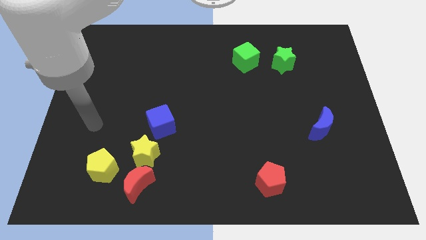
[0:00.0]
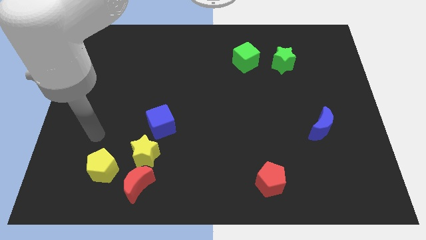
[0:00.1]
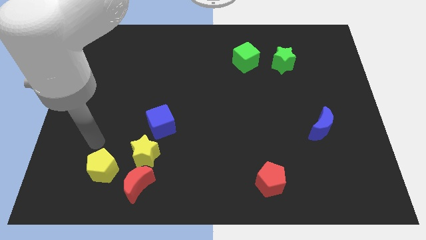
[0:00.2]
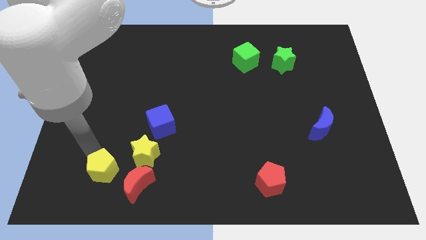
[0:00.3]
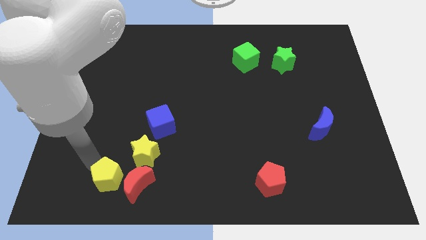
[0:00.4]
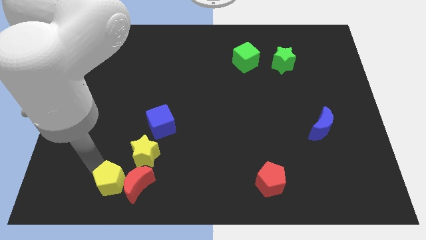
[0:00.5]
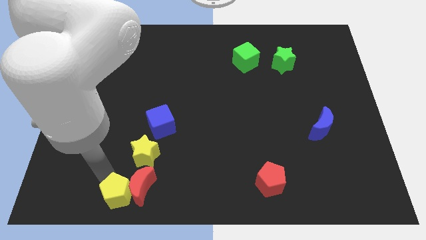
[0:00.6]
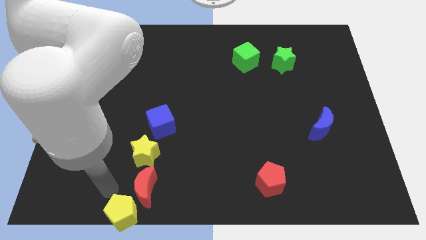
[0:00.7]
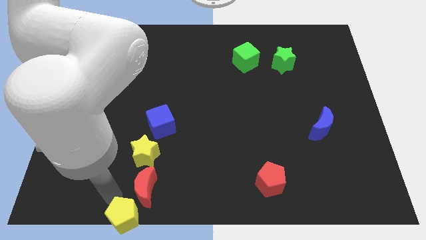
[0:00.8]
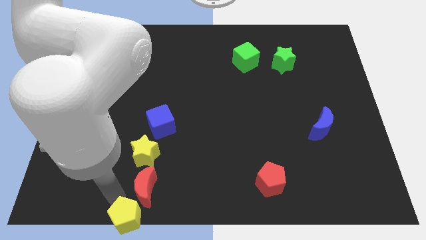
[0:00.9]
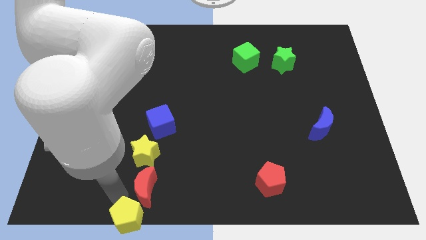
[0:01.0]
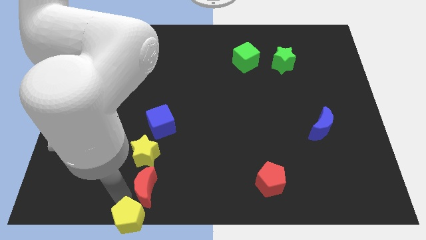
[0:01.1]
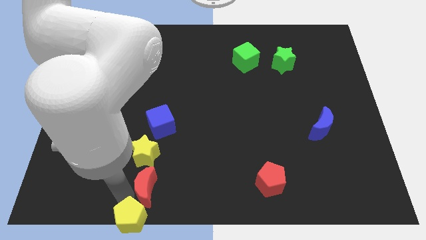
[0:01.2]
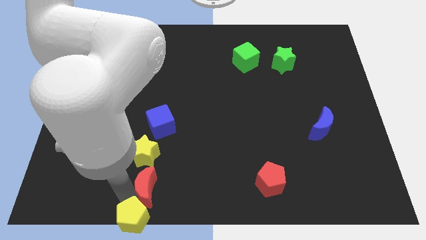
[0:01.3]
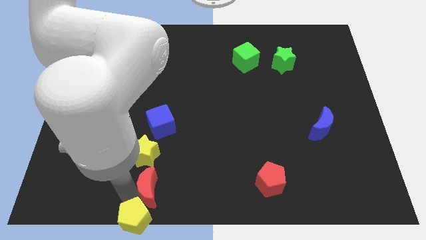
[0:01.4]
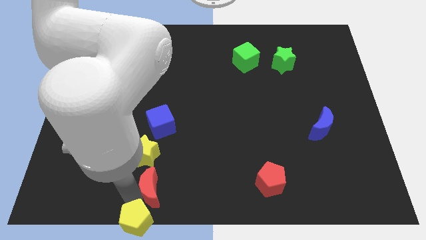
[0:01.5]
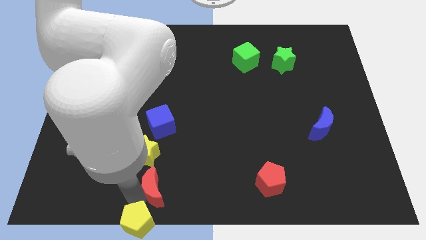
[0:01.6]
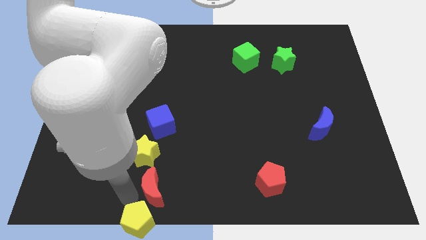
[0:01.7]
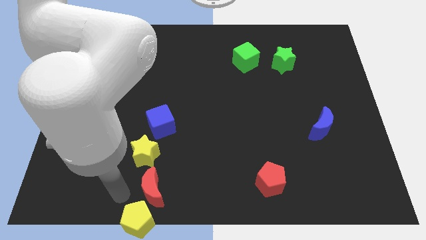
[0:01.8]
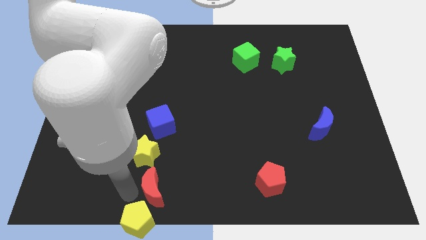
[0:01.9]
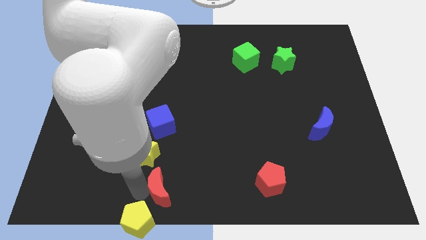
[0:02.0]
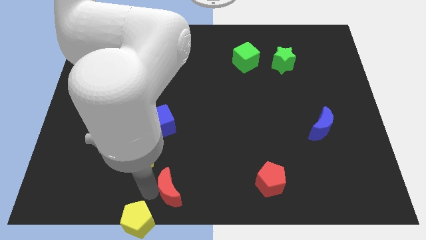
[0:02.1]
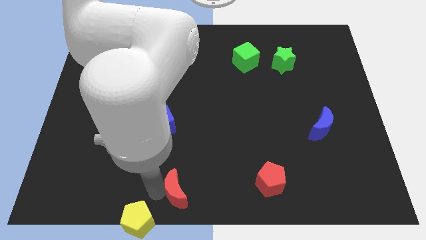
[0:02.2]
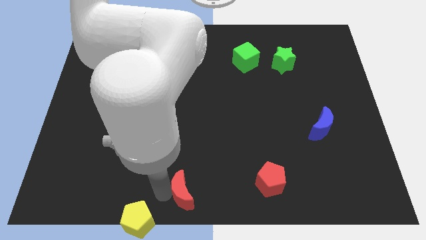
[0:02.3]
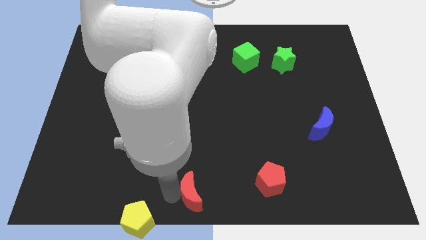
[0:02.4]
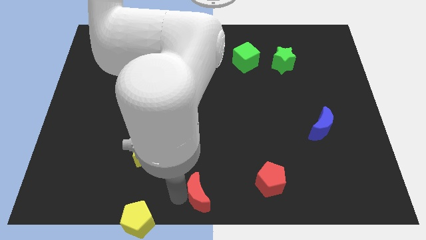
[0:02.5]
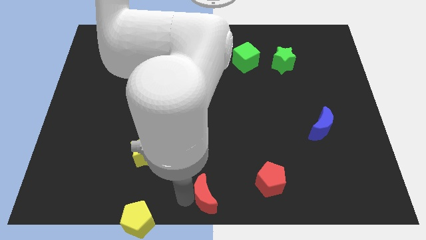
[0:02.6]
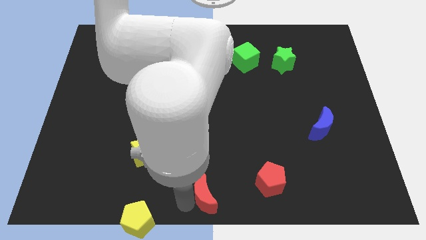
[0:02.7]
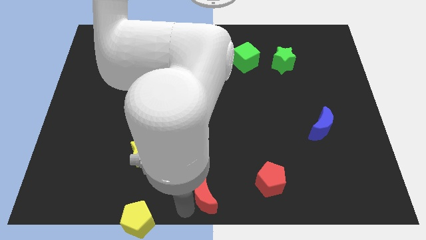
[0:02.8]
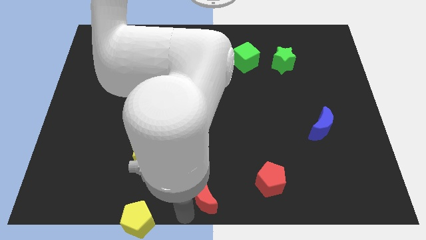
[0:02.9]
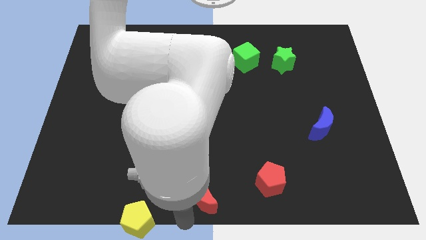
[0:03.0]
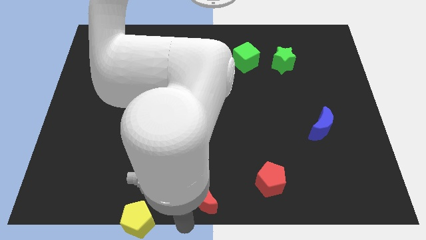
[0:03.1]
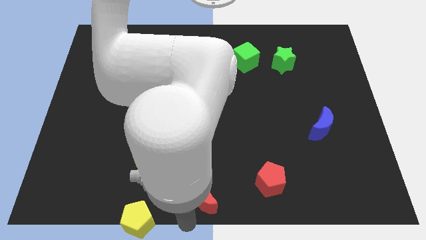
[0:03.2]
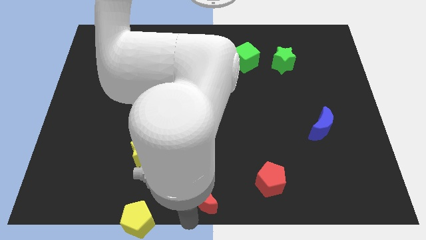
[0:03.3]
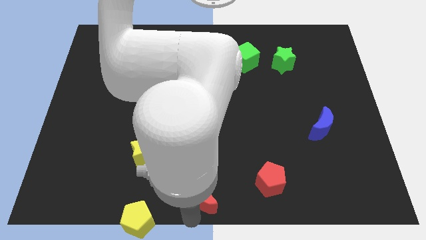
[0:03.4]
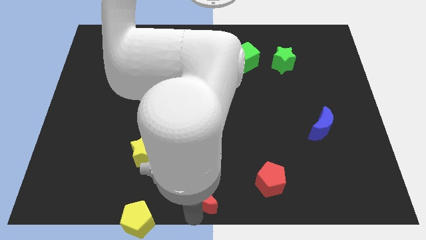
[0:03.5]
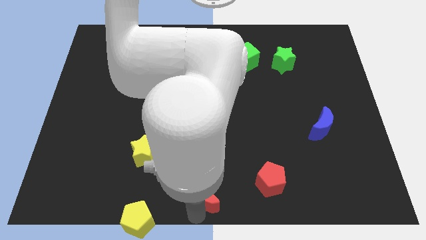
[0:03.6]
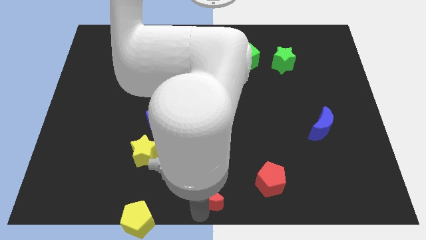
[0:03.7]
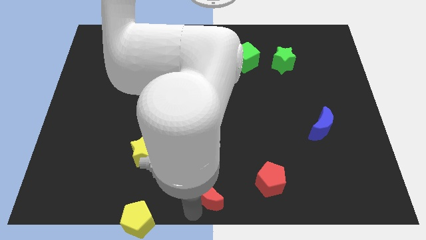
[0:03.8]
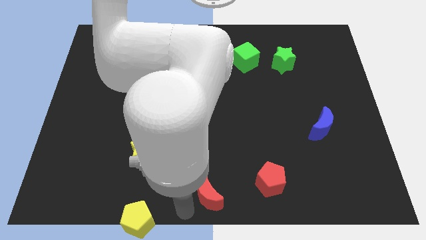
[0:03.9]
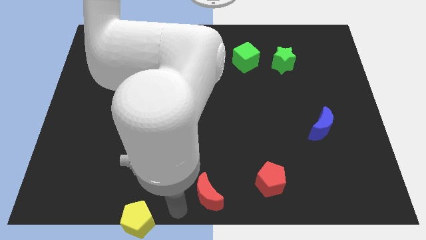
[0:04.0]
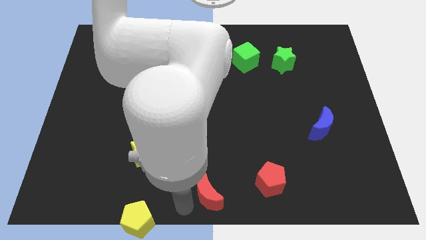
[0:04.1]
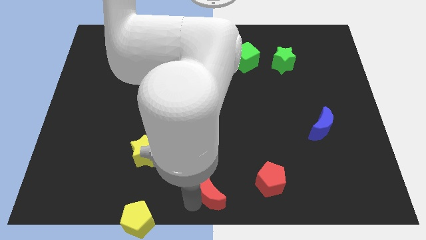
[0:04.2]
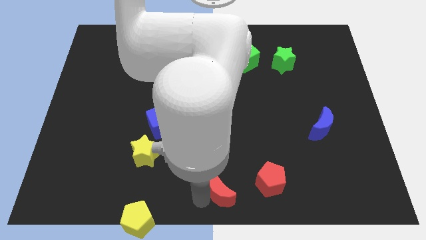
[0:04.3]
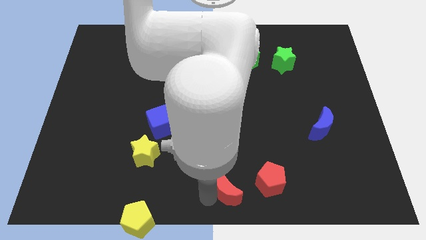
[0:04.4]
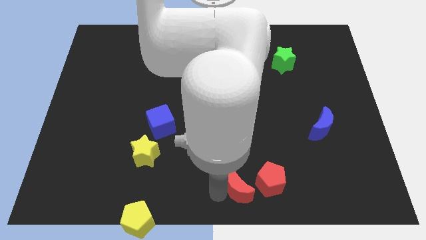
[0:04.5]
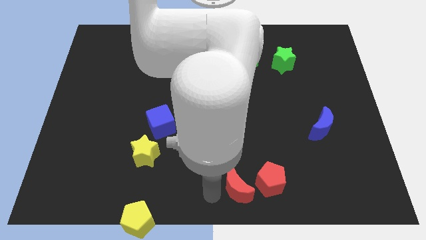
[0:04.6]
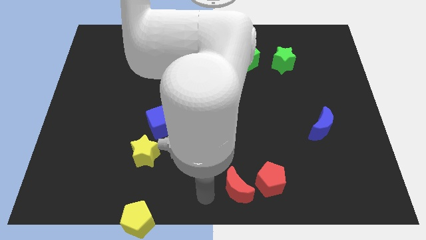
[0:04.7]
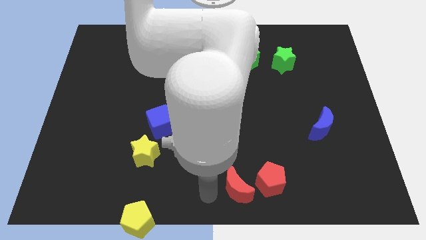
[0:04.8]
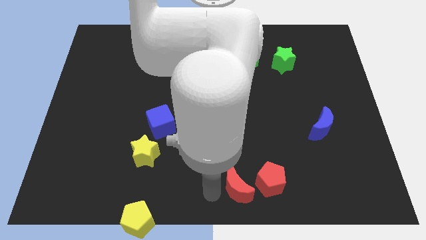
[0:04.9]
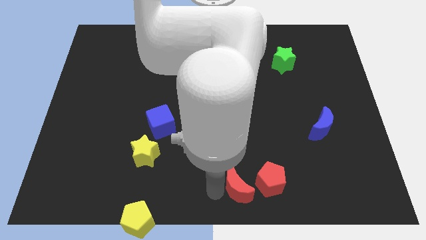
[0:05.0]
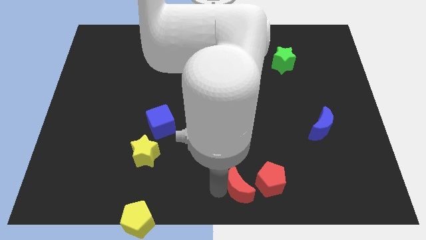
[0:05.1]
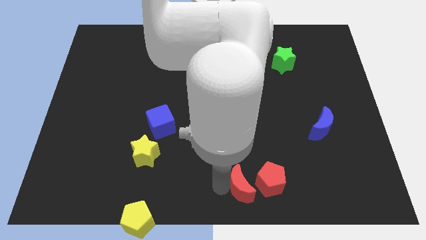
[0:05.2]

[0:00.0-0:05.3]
move the red moon close to the red pentagon

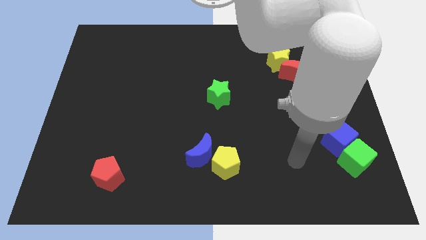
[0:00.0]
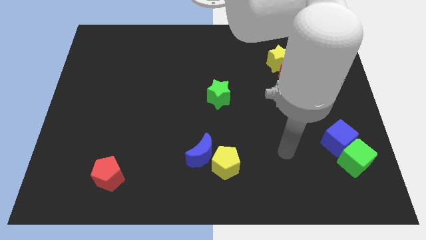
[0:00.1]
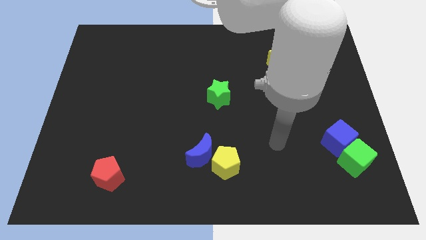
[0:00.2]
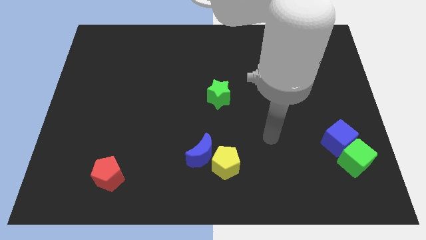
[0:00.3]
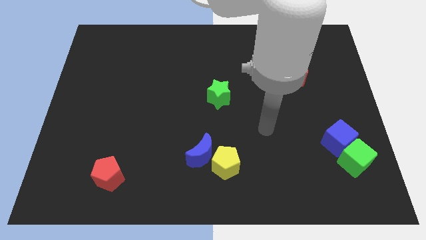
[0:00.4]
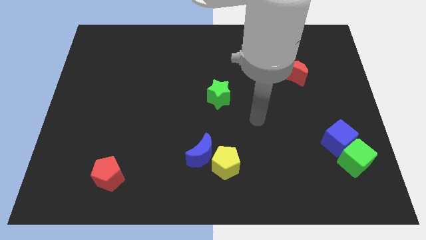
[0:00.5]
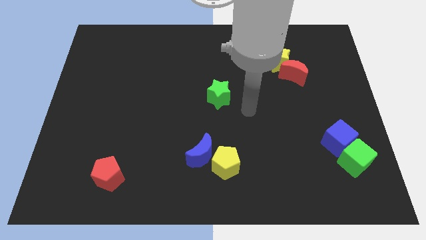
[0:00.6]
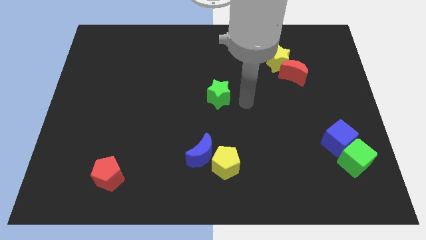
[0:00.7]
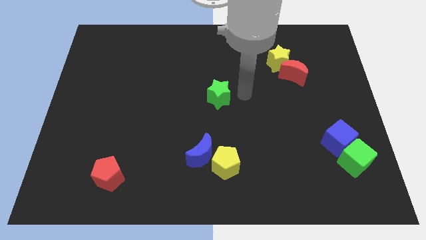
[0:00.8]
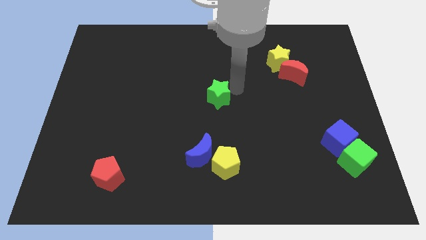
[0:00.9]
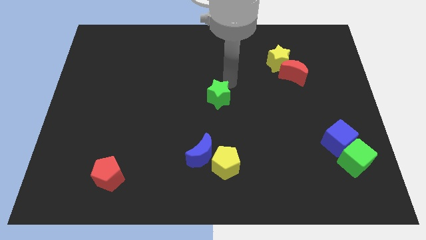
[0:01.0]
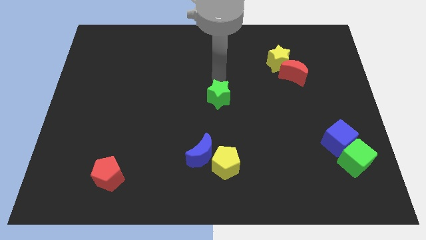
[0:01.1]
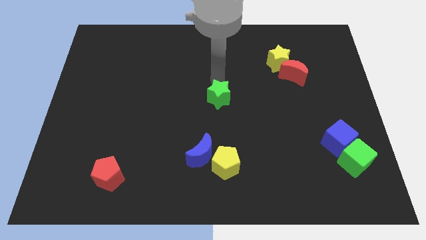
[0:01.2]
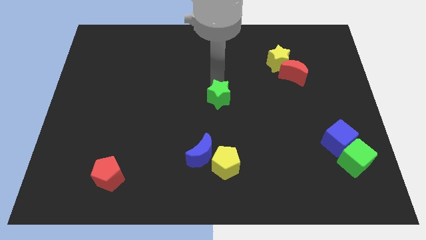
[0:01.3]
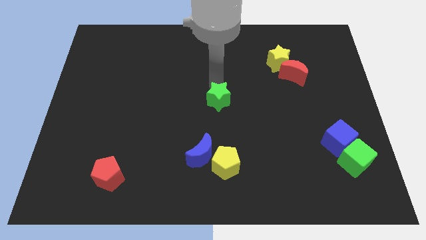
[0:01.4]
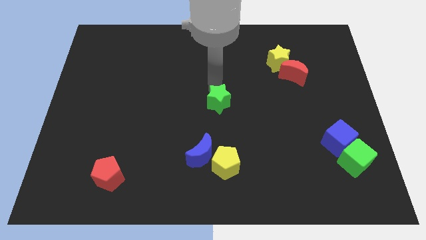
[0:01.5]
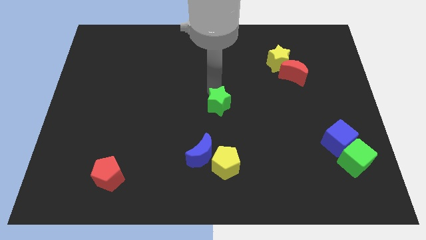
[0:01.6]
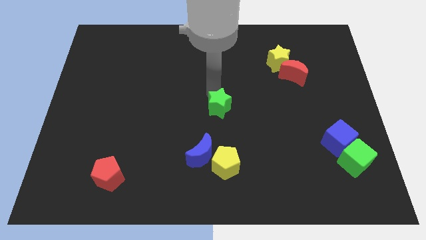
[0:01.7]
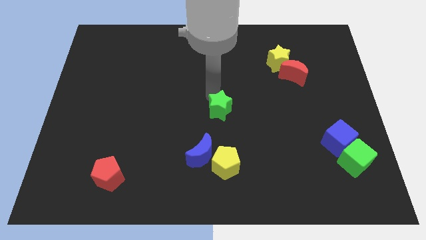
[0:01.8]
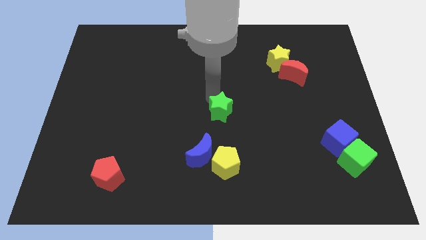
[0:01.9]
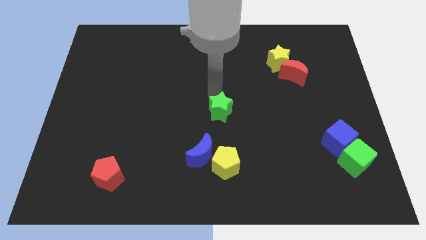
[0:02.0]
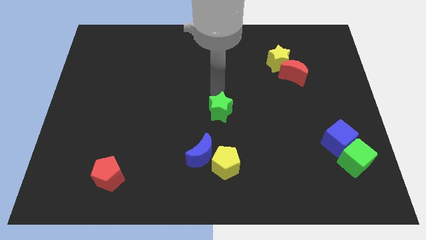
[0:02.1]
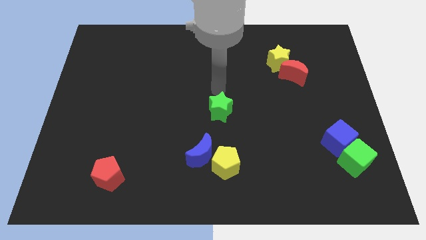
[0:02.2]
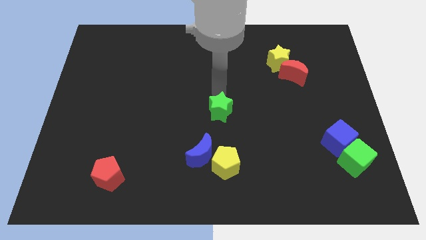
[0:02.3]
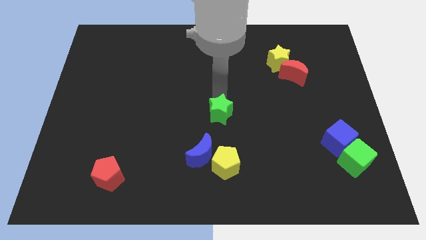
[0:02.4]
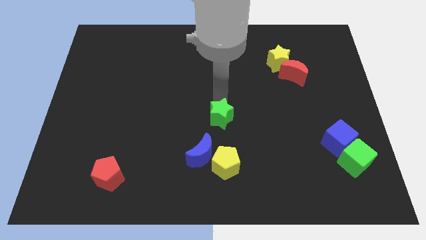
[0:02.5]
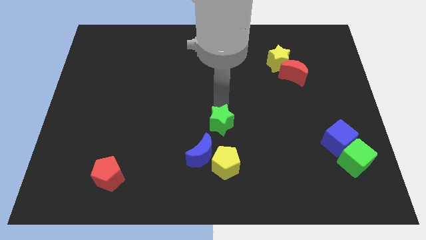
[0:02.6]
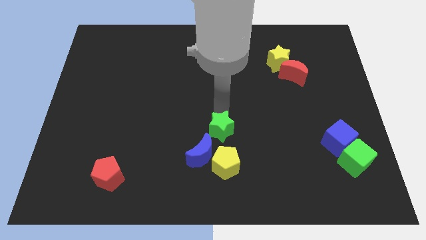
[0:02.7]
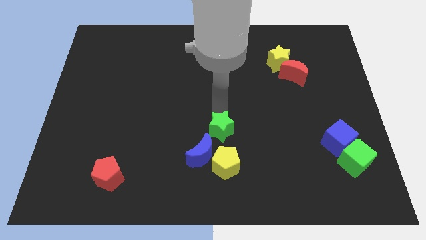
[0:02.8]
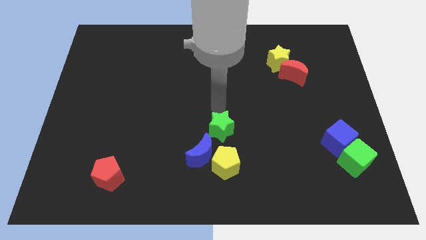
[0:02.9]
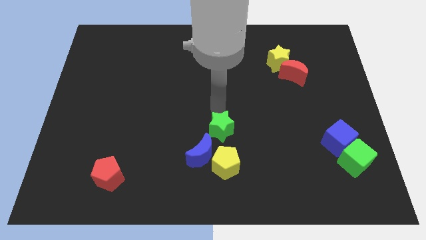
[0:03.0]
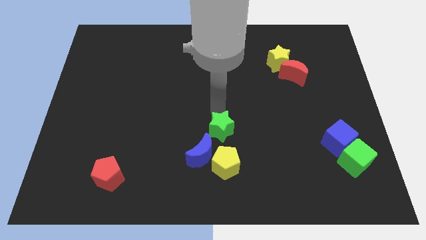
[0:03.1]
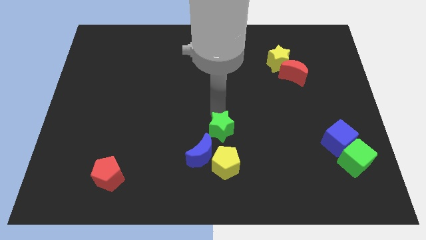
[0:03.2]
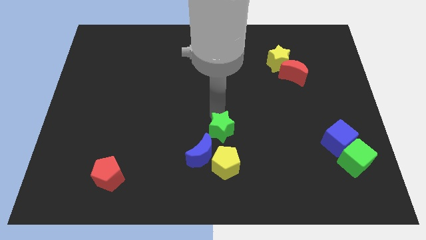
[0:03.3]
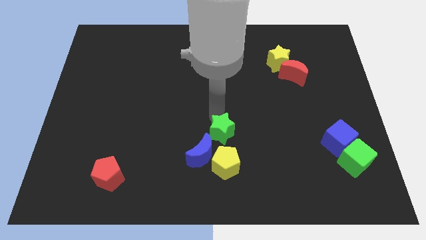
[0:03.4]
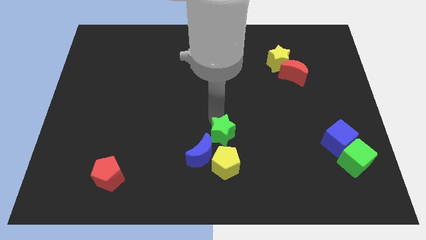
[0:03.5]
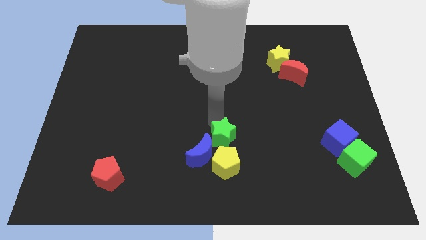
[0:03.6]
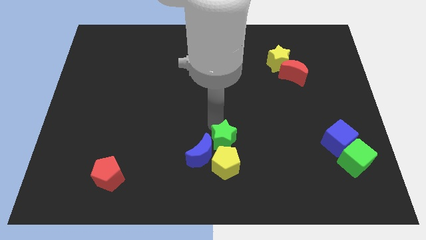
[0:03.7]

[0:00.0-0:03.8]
slide the green star towards the yellow pentagon
